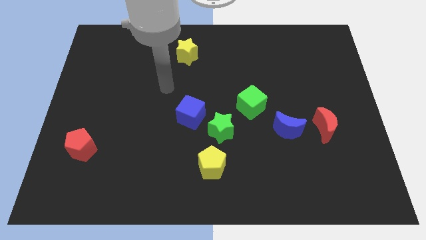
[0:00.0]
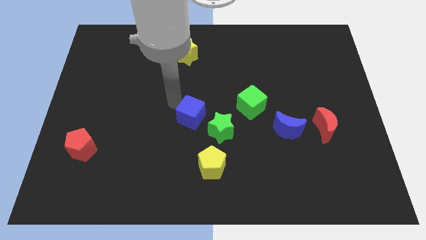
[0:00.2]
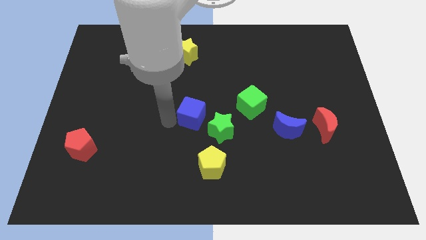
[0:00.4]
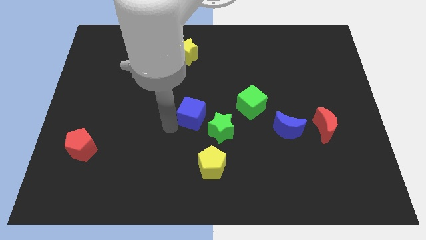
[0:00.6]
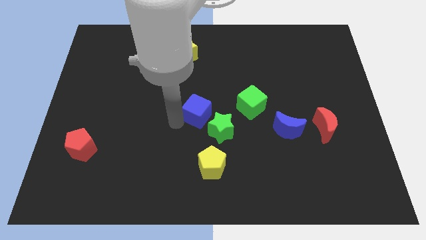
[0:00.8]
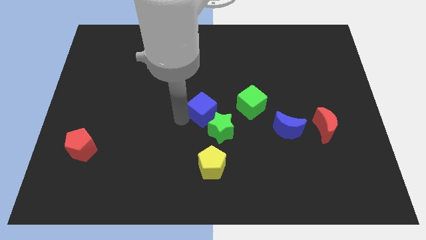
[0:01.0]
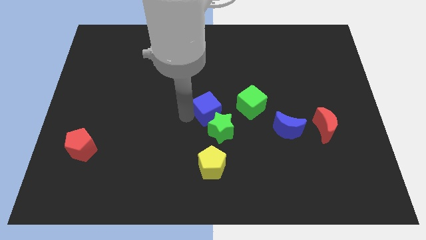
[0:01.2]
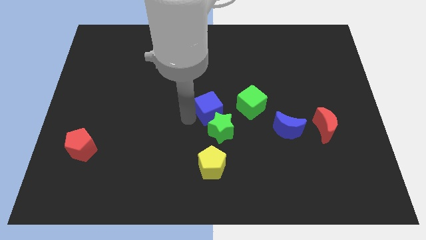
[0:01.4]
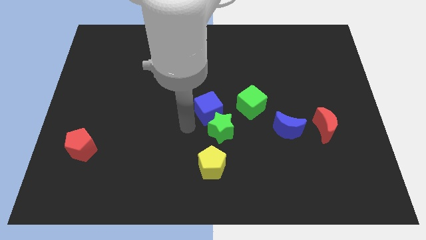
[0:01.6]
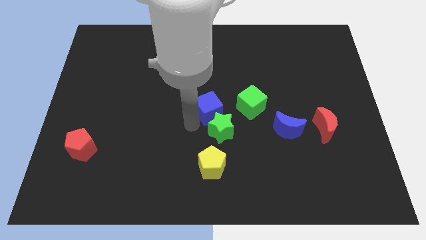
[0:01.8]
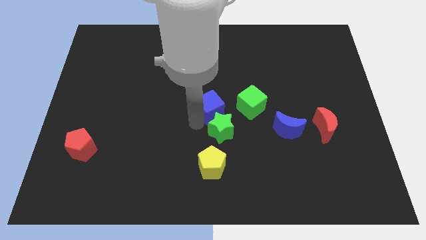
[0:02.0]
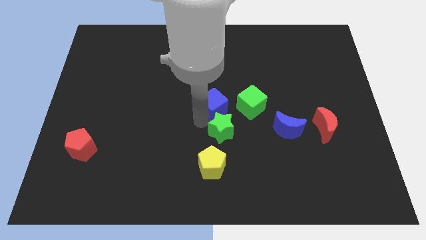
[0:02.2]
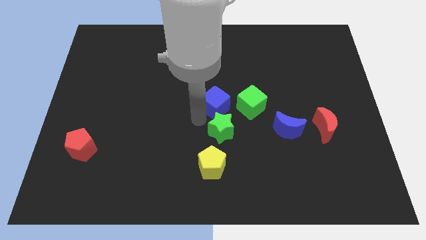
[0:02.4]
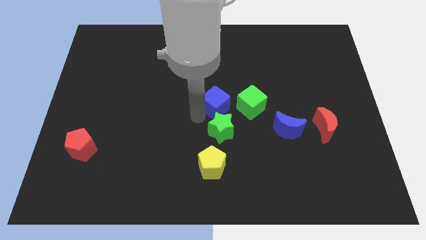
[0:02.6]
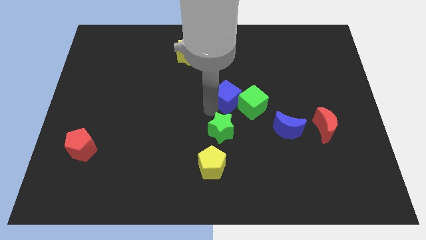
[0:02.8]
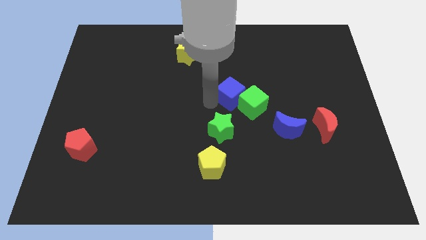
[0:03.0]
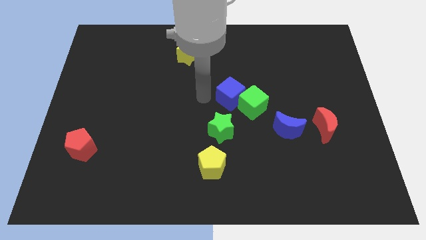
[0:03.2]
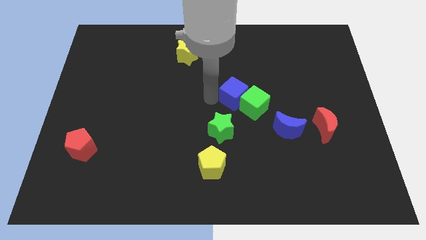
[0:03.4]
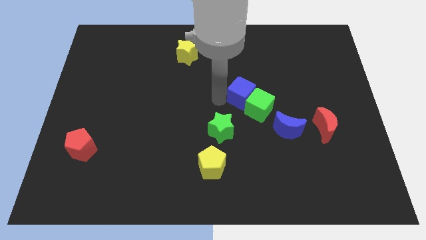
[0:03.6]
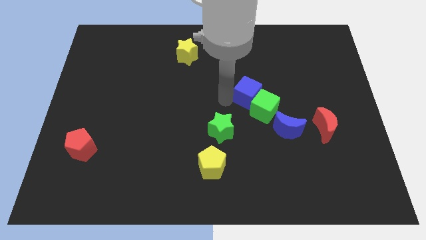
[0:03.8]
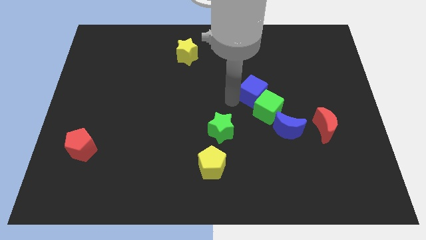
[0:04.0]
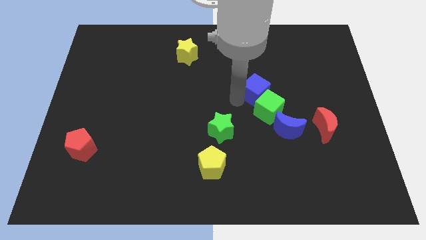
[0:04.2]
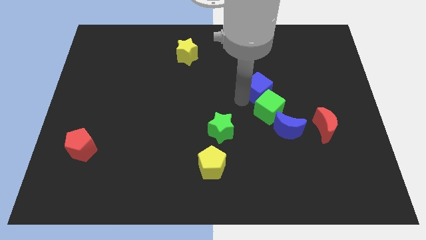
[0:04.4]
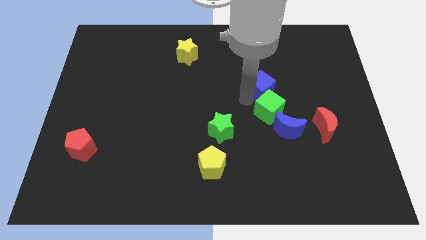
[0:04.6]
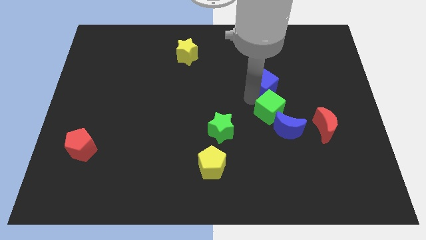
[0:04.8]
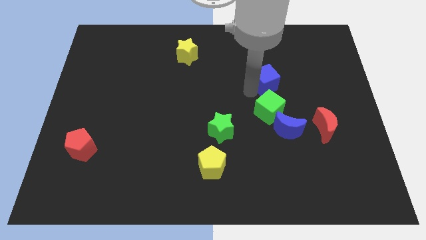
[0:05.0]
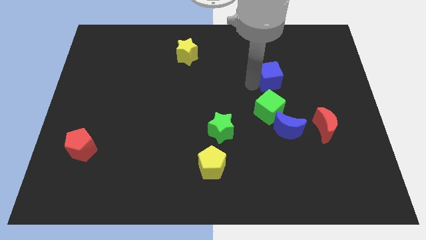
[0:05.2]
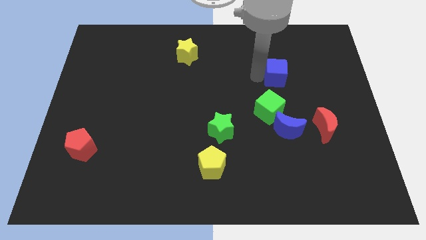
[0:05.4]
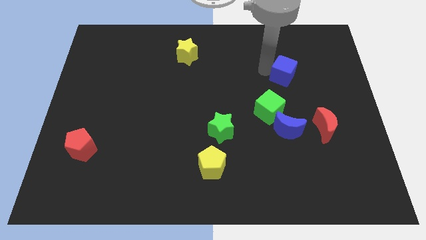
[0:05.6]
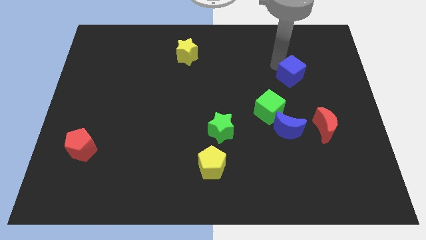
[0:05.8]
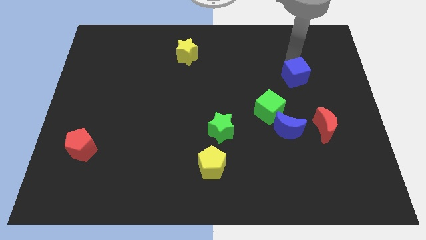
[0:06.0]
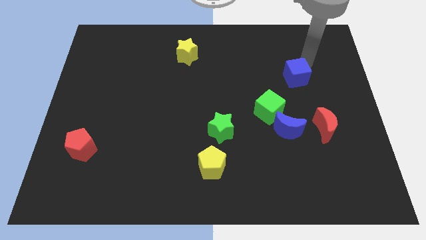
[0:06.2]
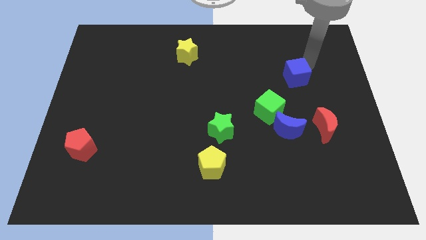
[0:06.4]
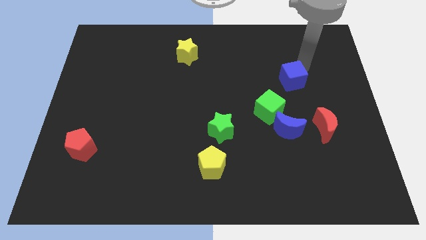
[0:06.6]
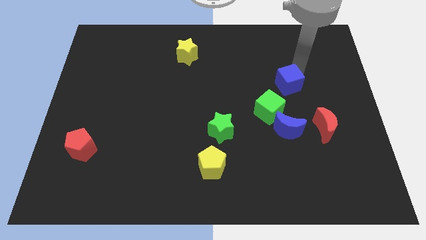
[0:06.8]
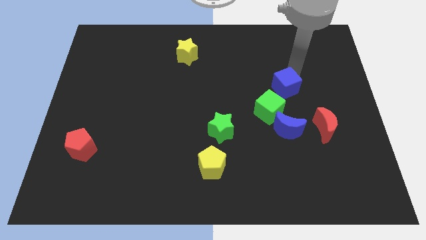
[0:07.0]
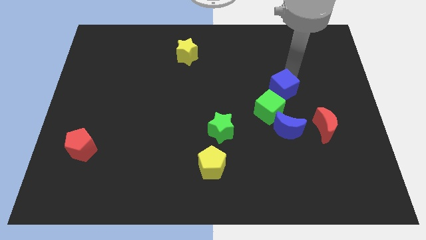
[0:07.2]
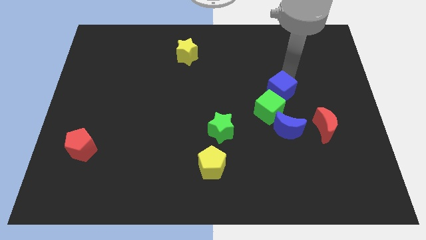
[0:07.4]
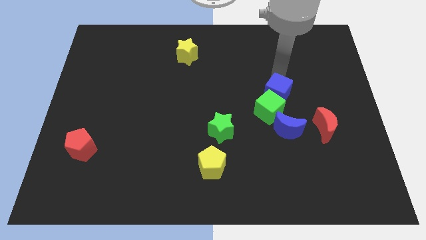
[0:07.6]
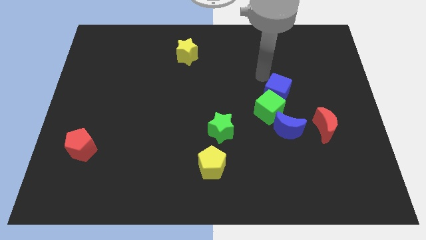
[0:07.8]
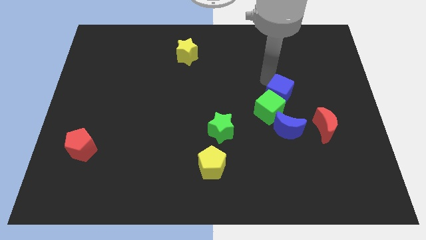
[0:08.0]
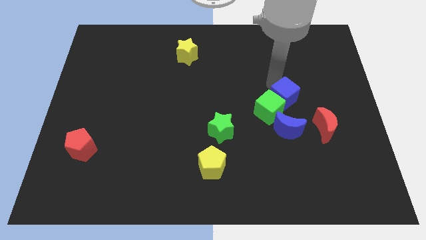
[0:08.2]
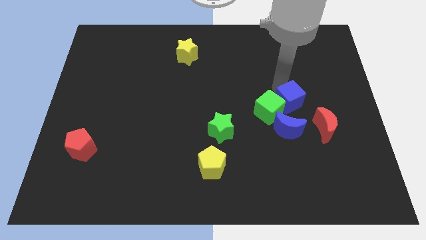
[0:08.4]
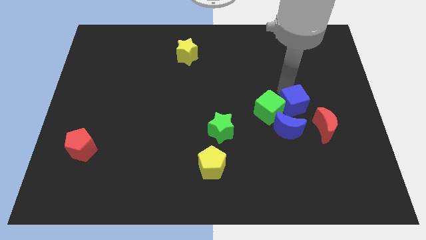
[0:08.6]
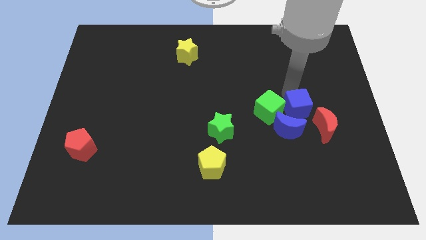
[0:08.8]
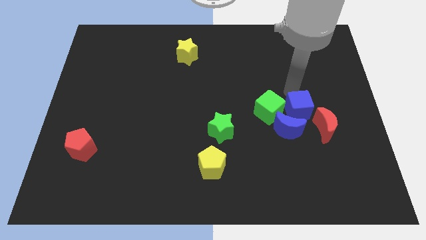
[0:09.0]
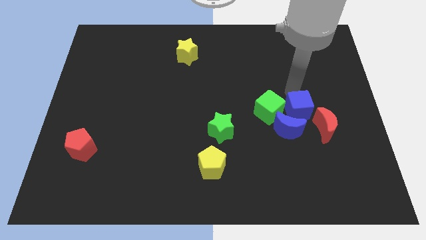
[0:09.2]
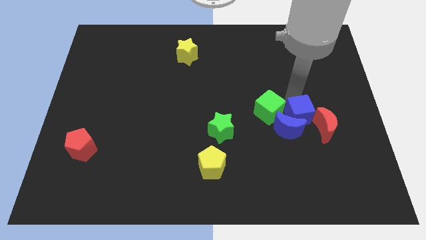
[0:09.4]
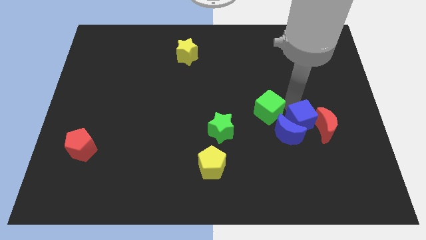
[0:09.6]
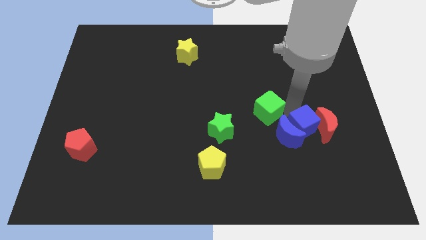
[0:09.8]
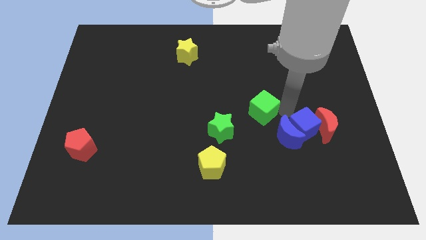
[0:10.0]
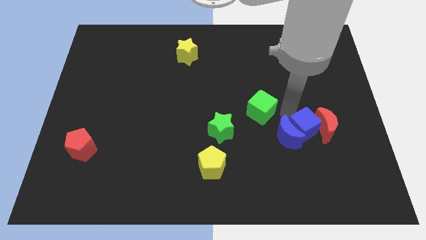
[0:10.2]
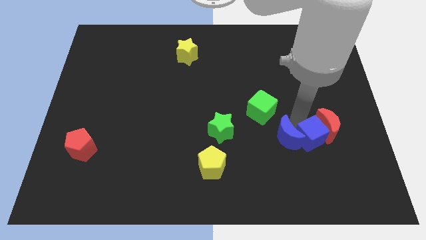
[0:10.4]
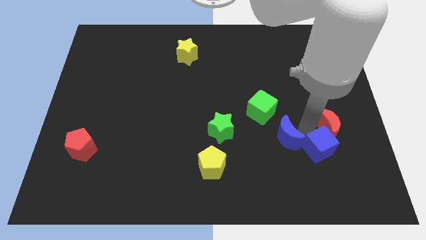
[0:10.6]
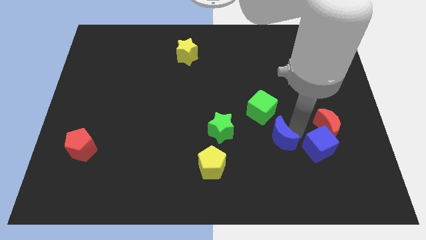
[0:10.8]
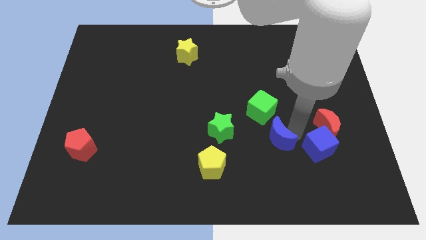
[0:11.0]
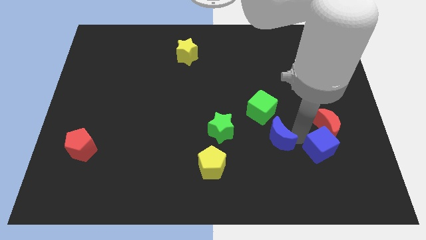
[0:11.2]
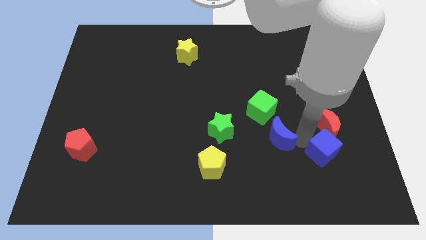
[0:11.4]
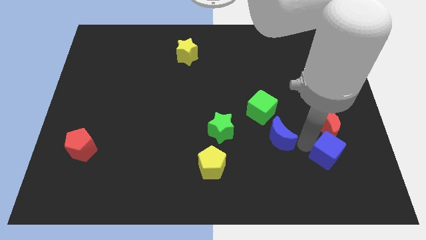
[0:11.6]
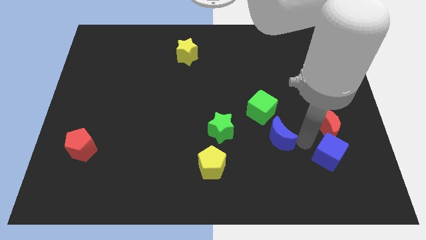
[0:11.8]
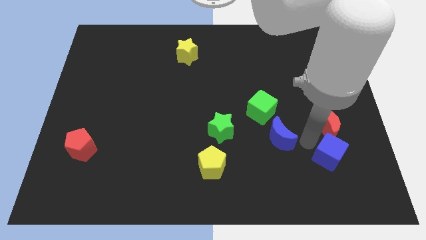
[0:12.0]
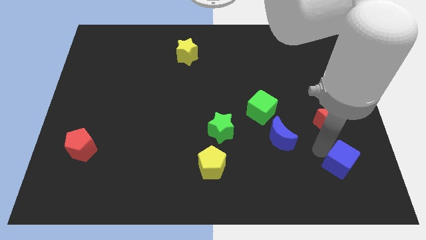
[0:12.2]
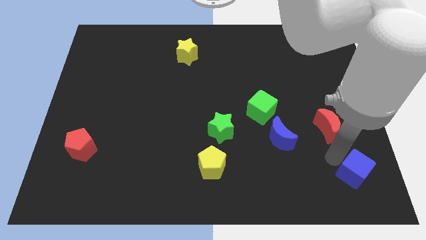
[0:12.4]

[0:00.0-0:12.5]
push the blue cube to the bottom right
